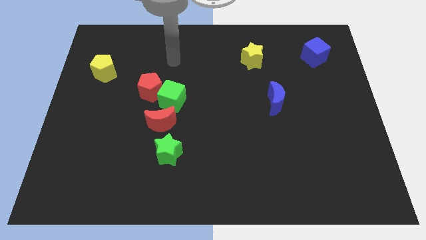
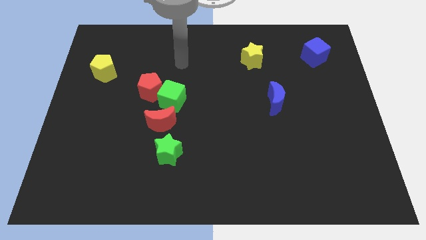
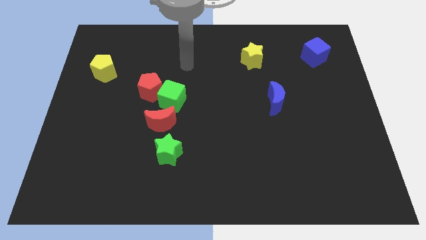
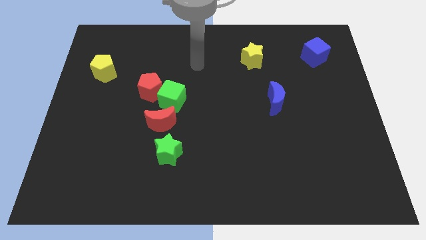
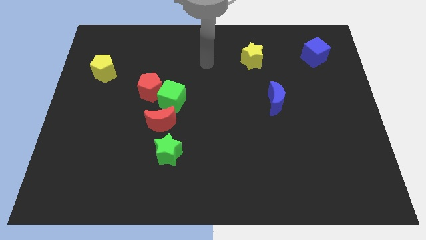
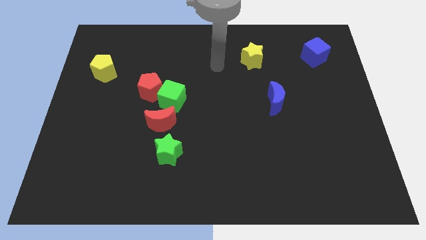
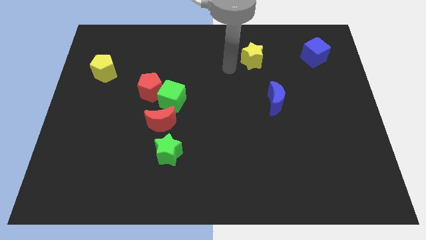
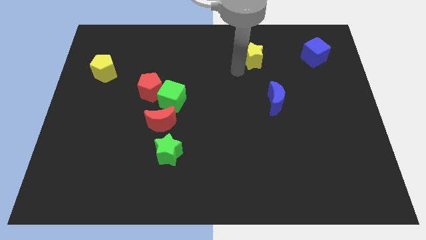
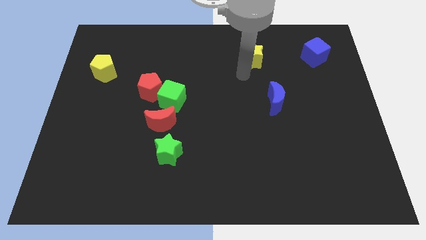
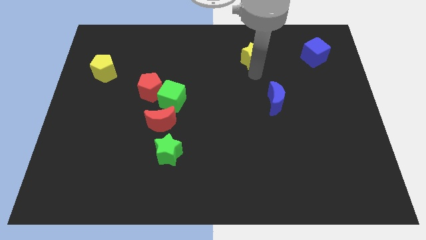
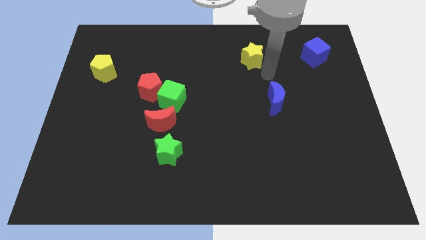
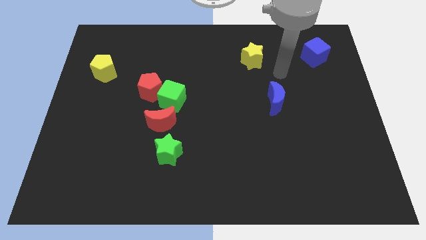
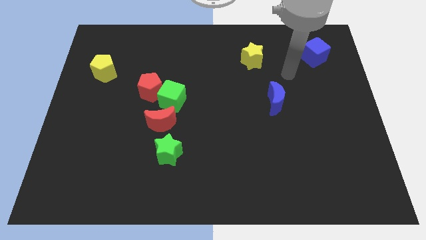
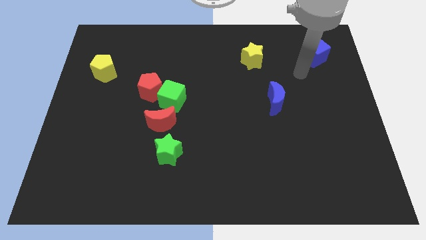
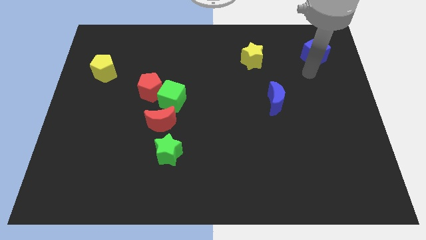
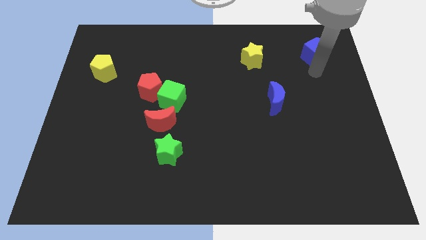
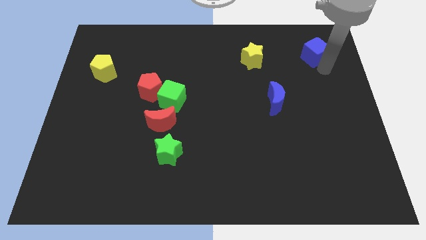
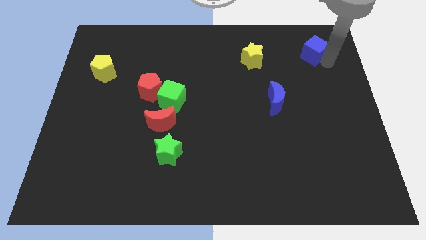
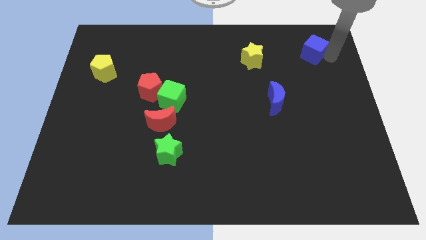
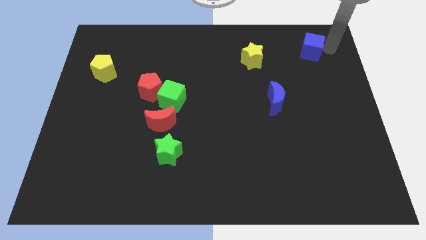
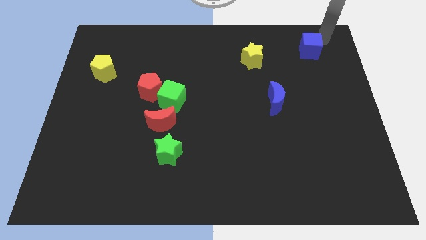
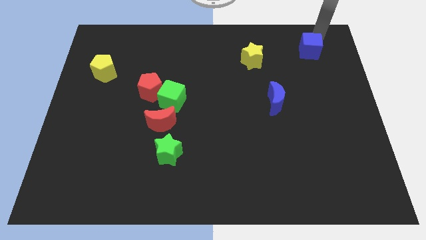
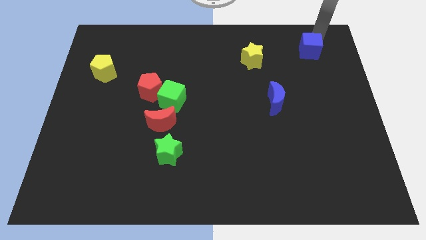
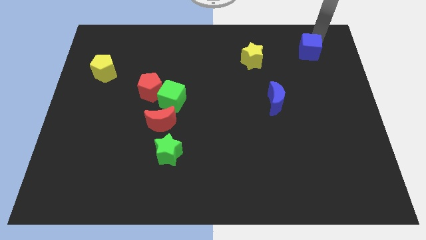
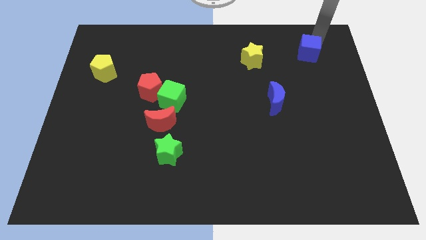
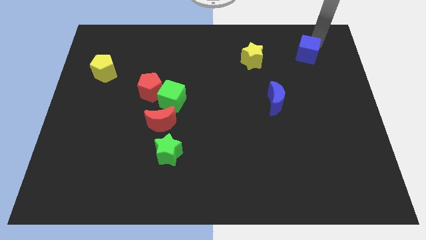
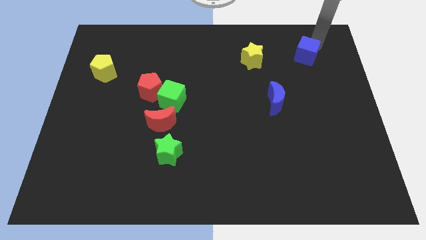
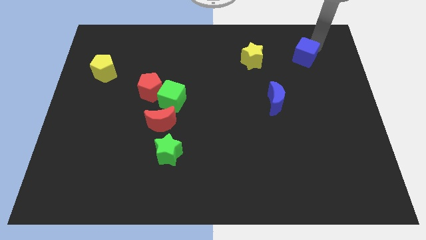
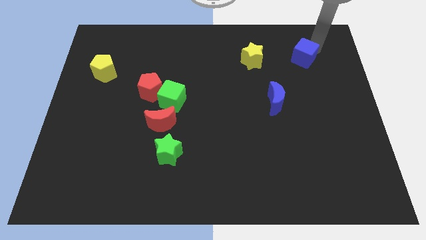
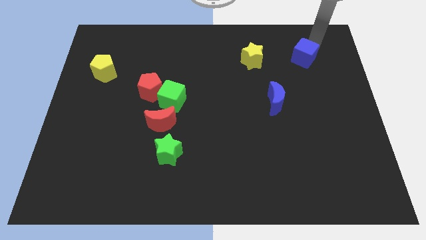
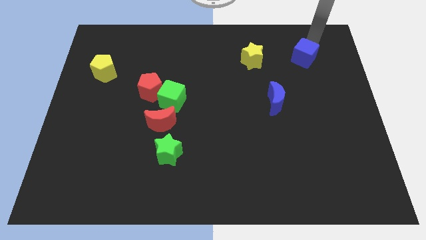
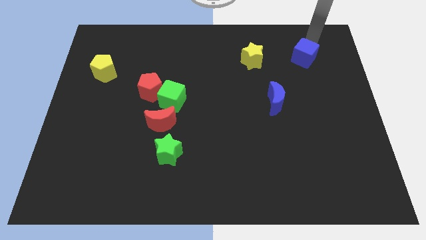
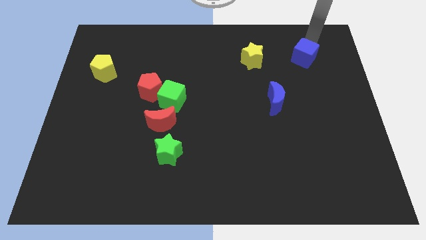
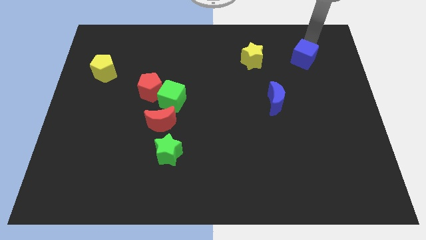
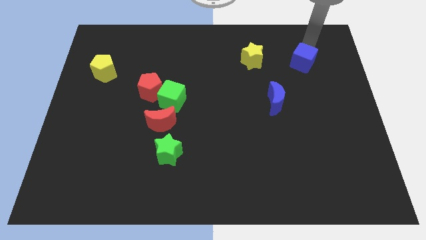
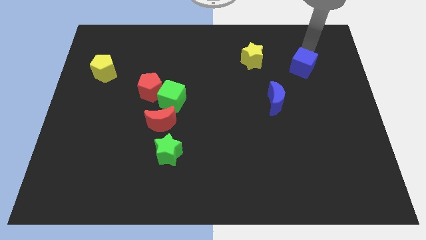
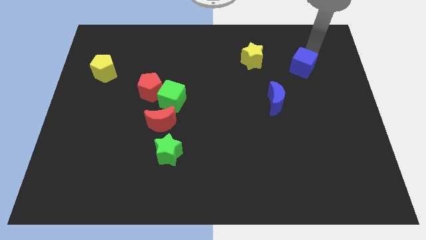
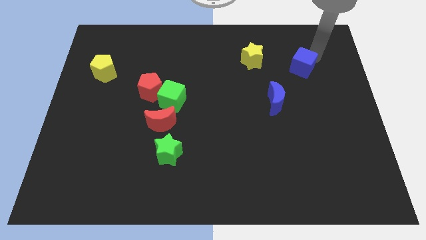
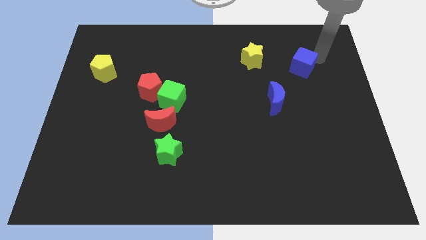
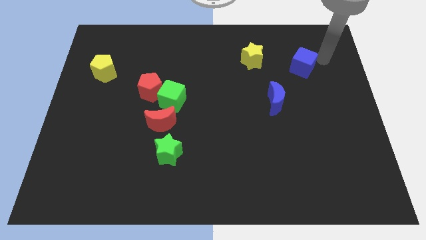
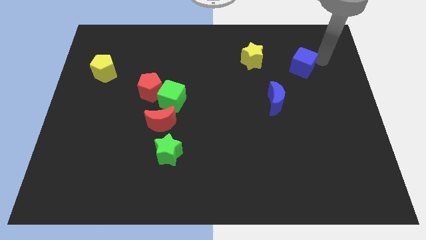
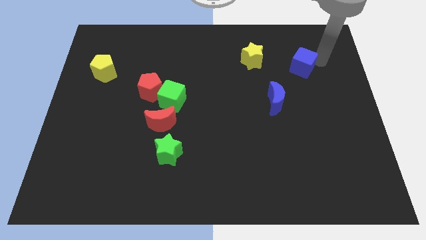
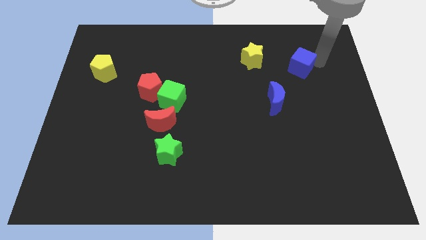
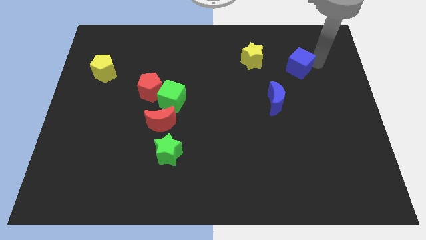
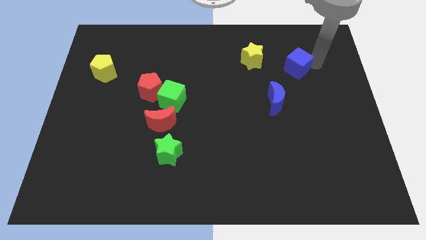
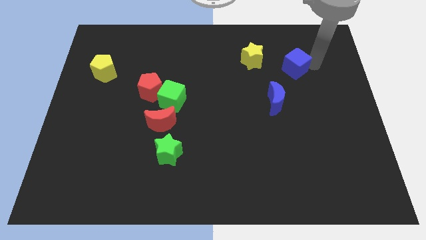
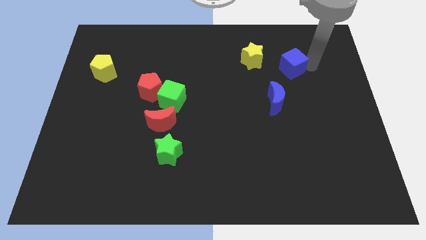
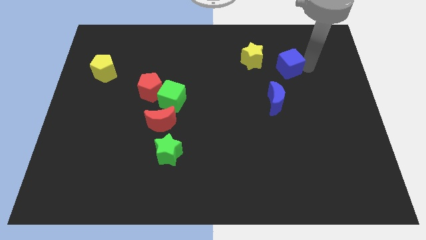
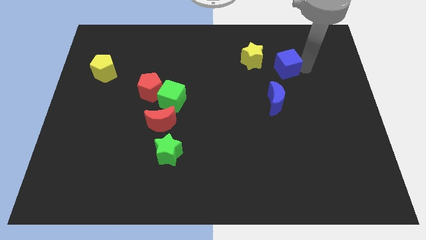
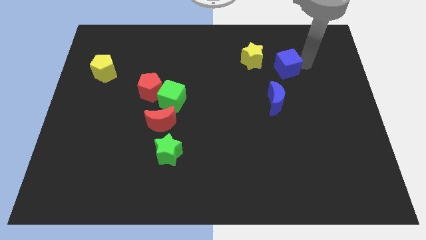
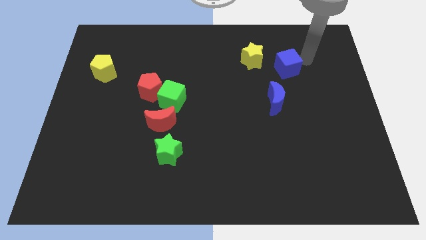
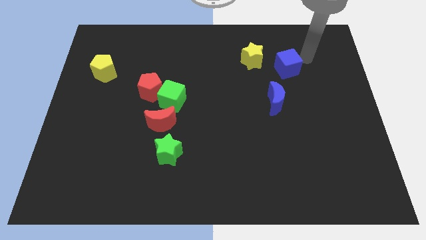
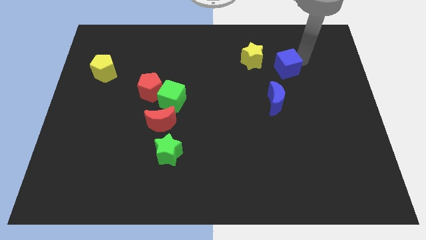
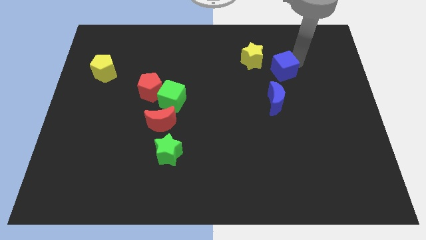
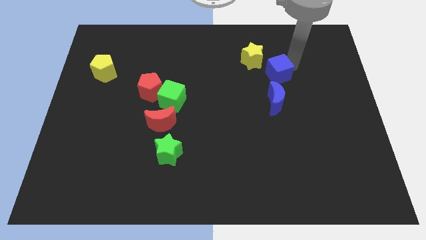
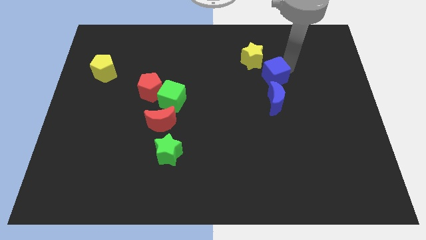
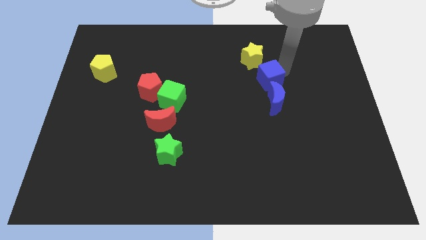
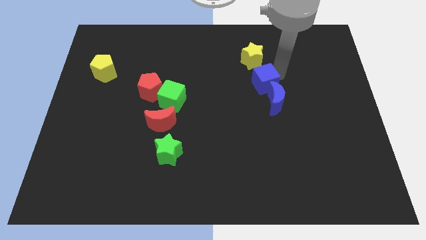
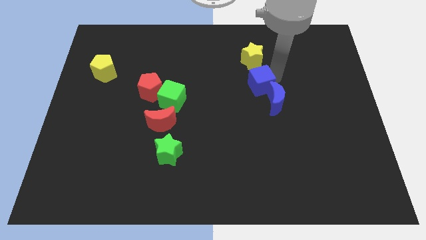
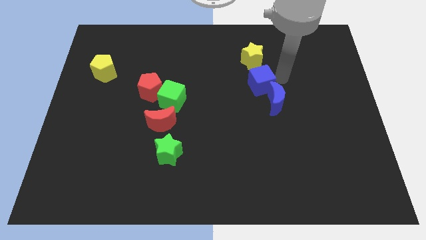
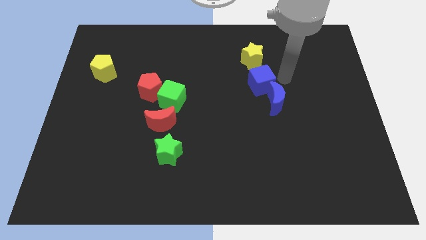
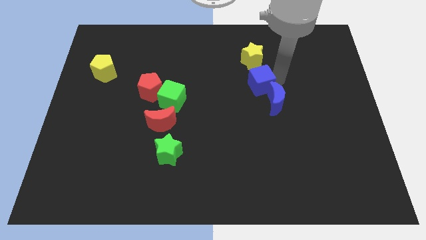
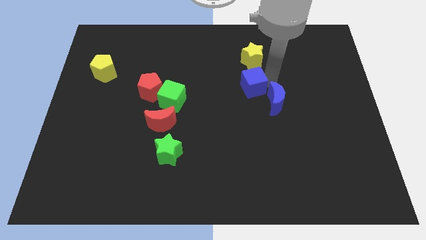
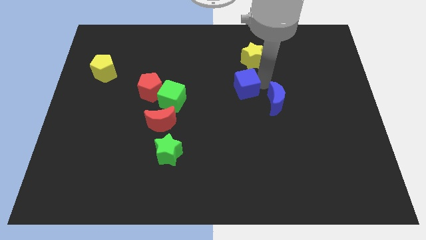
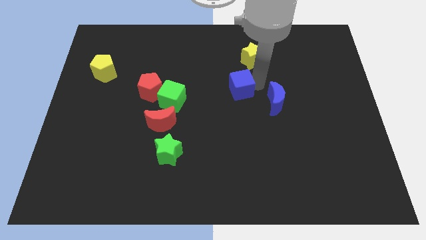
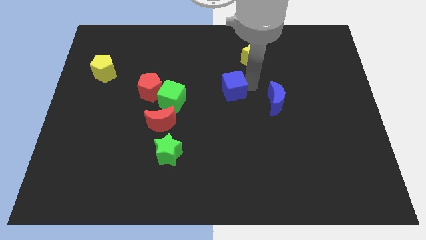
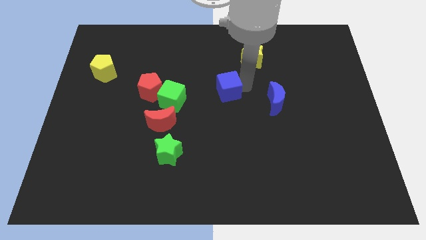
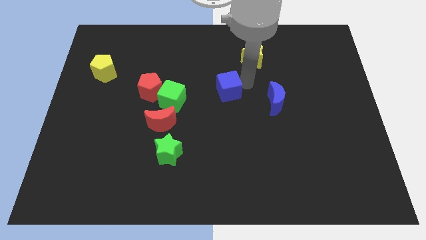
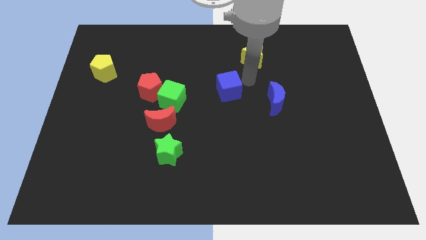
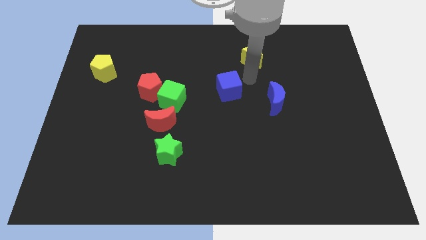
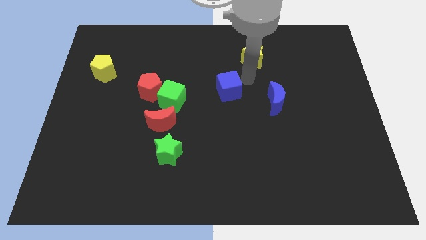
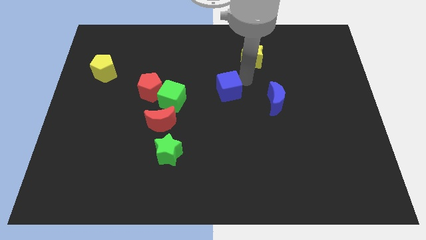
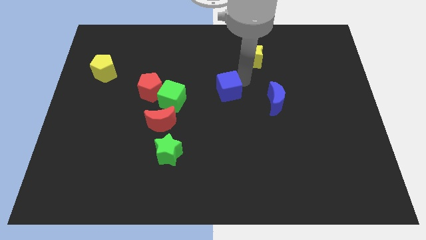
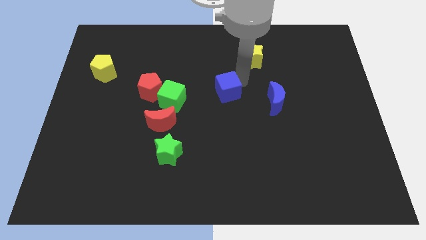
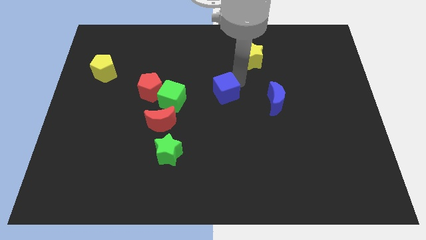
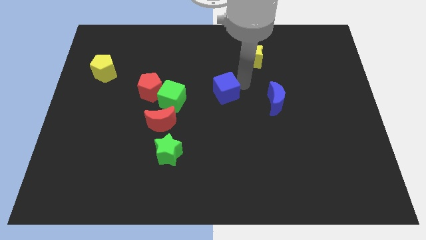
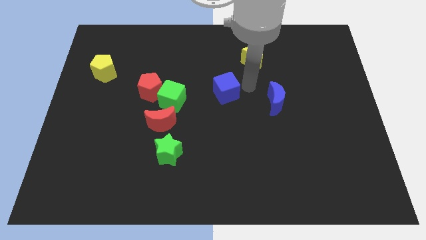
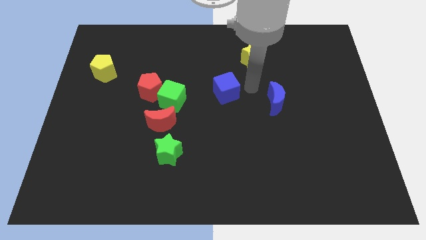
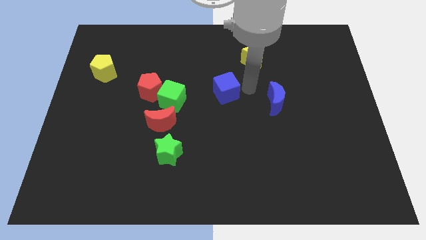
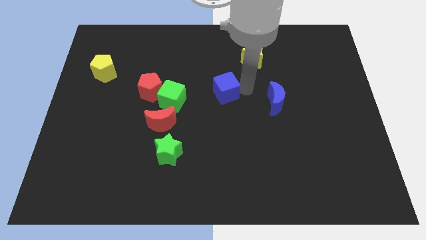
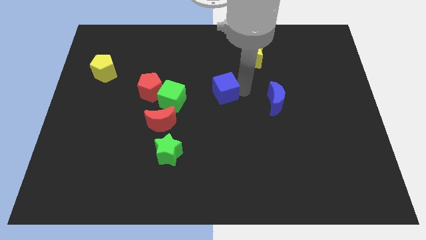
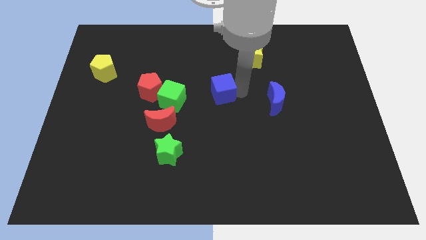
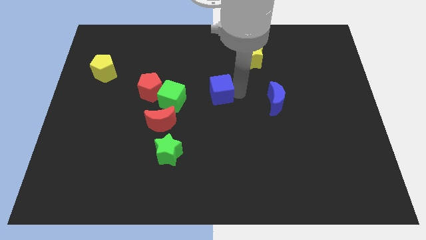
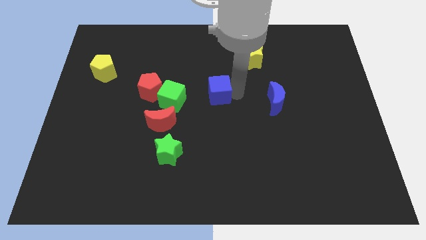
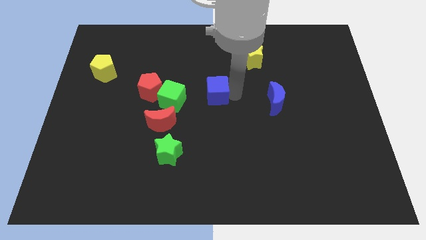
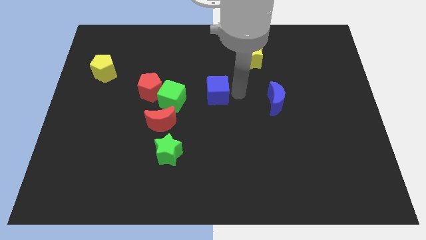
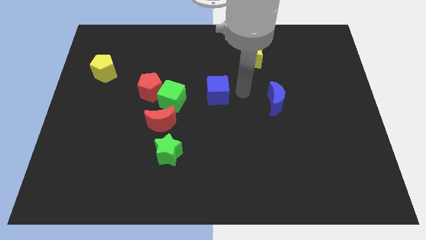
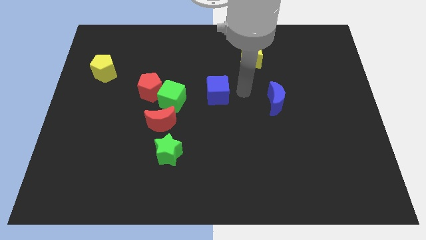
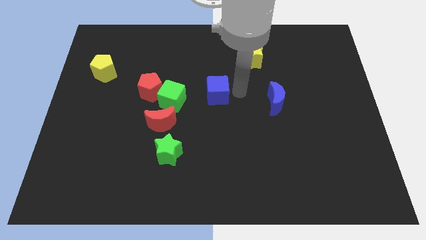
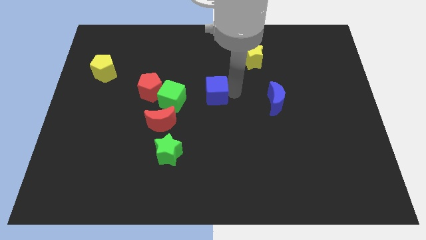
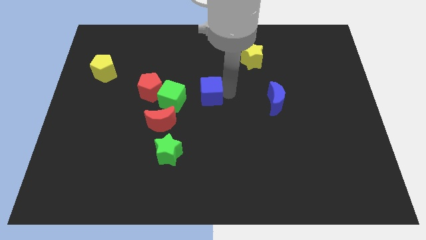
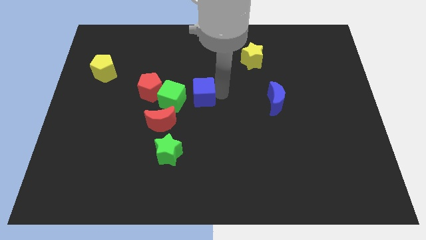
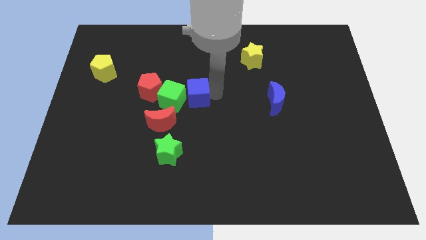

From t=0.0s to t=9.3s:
move the blue cube to the green cube
